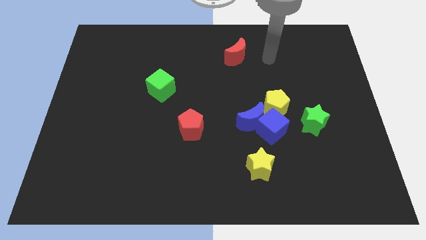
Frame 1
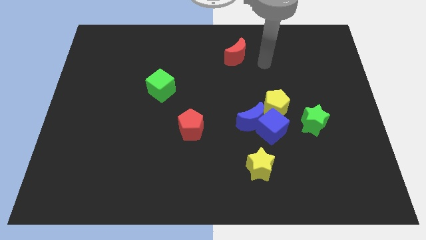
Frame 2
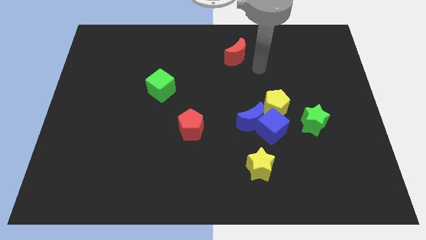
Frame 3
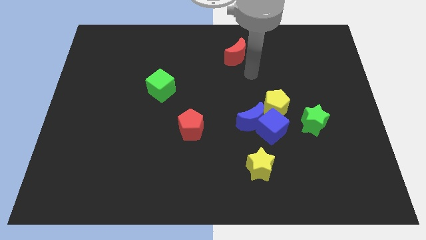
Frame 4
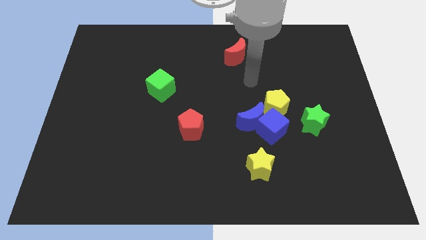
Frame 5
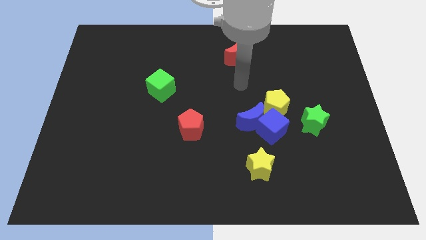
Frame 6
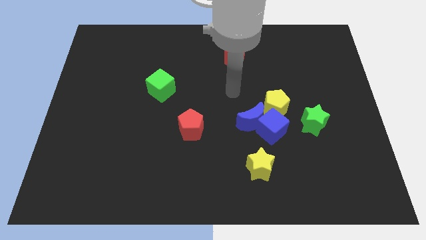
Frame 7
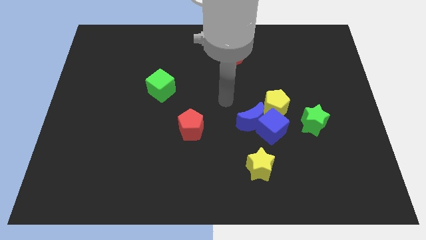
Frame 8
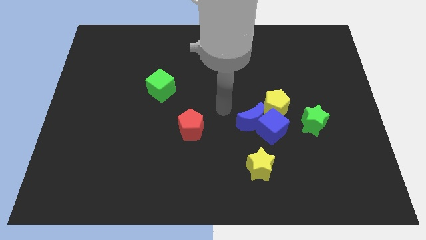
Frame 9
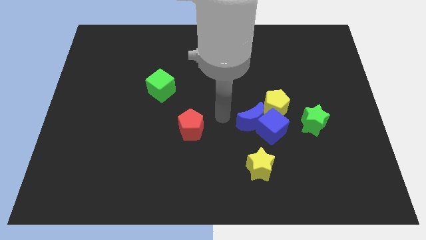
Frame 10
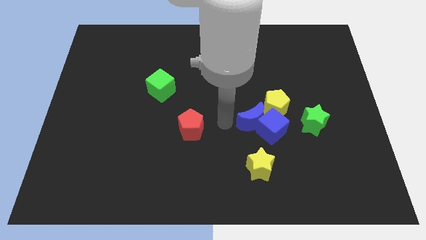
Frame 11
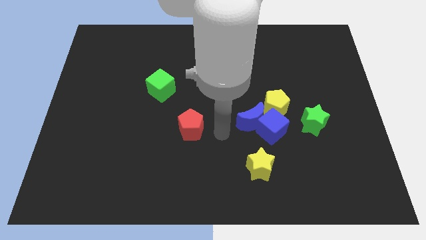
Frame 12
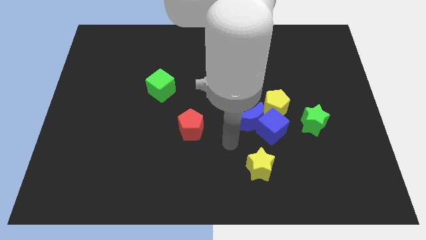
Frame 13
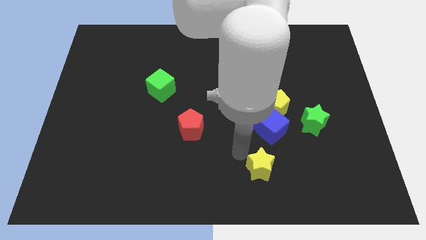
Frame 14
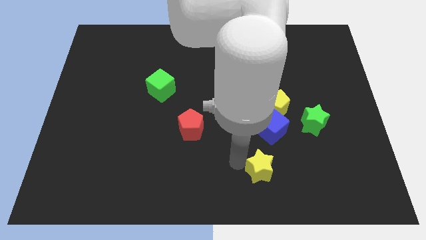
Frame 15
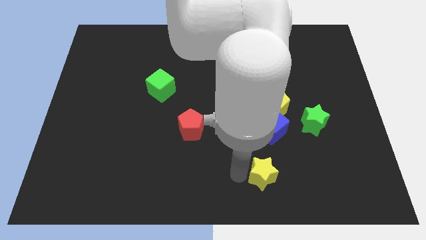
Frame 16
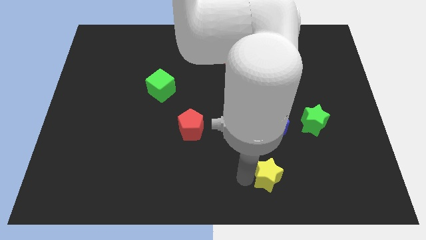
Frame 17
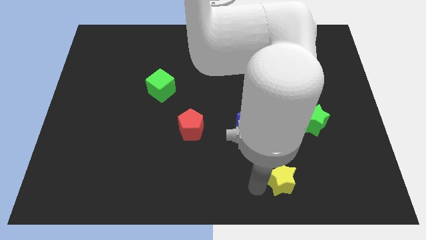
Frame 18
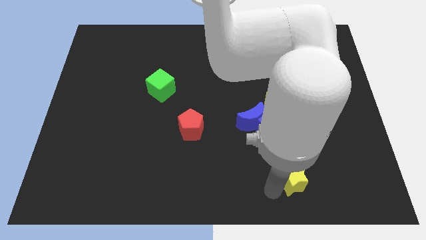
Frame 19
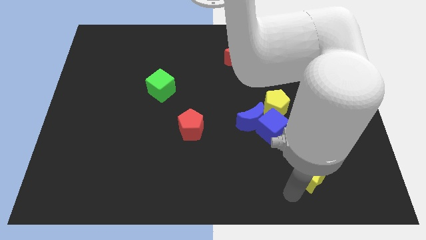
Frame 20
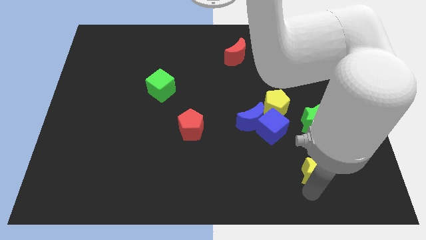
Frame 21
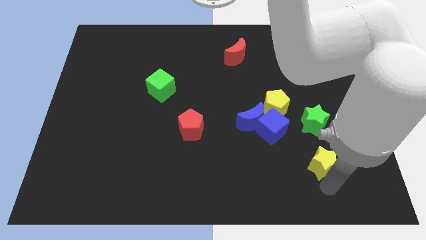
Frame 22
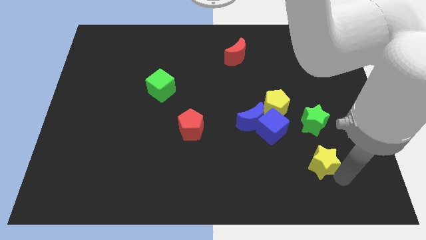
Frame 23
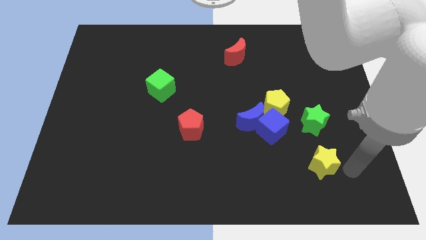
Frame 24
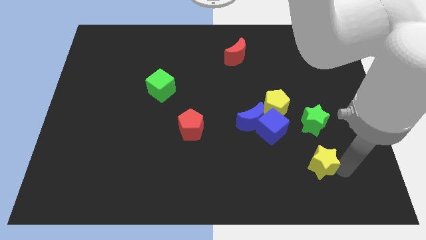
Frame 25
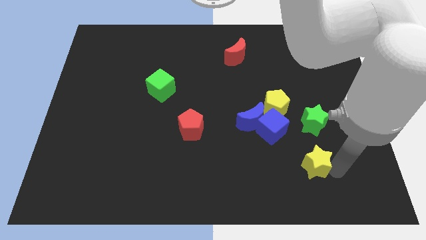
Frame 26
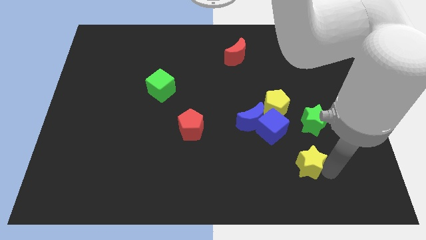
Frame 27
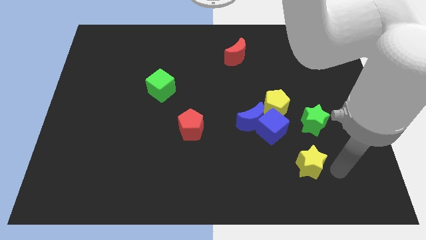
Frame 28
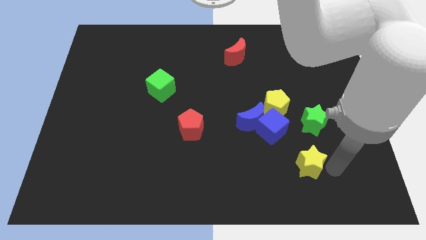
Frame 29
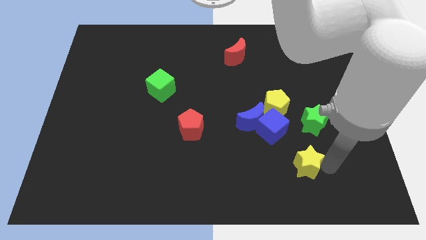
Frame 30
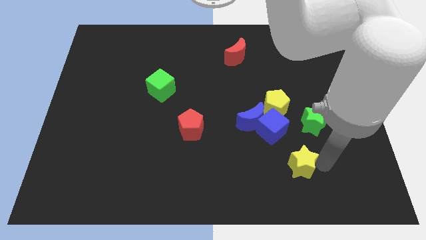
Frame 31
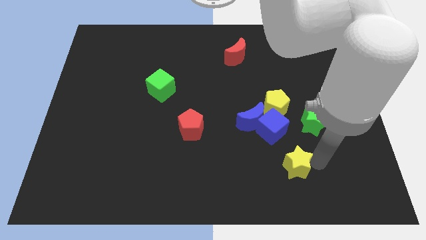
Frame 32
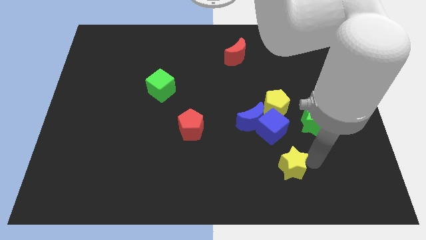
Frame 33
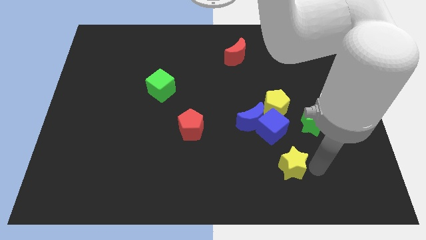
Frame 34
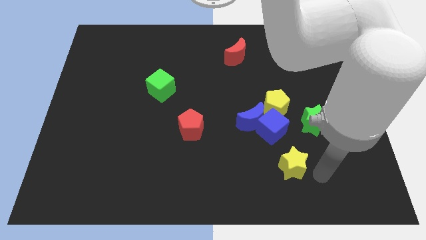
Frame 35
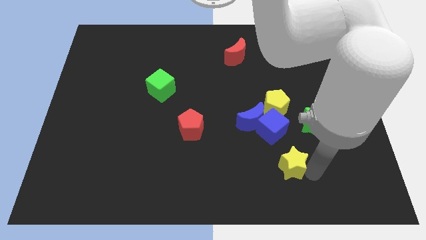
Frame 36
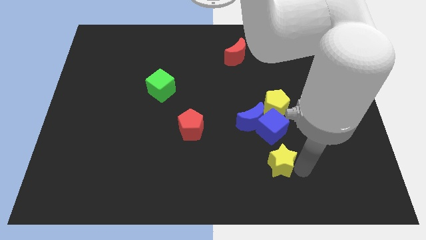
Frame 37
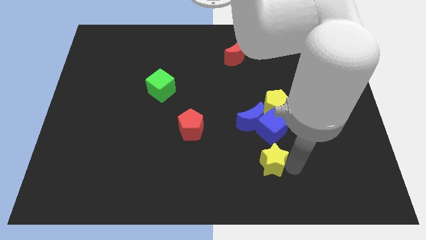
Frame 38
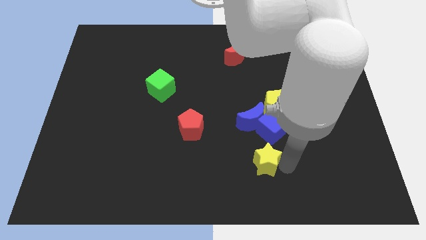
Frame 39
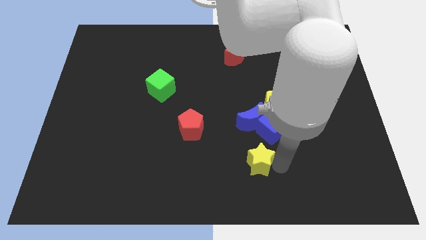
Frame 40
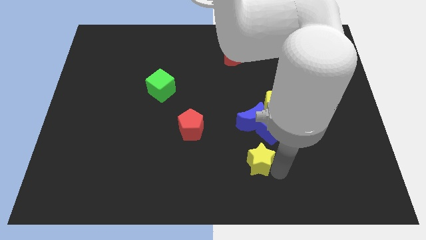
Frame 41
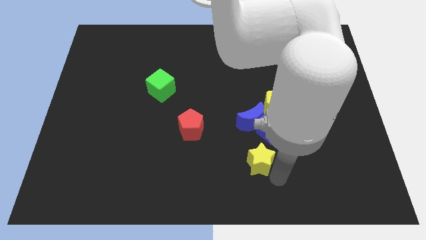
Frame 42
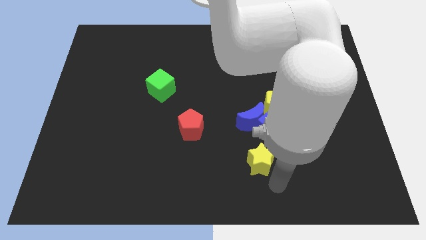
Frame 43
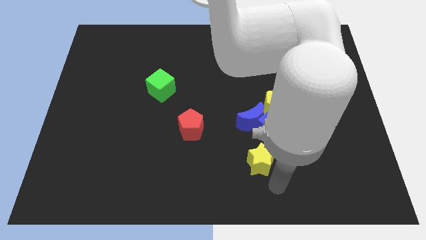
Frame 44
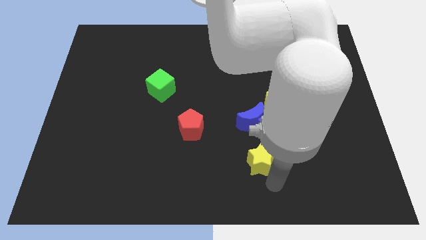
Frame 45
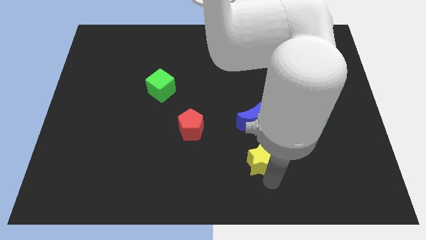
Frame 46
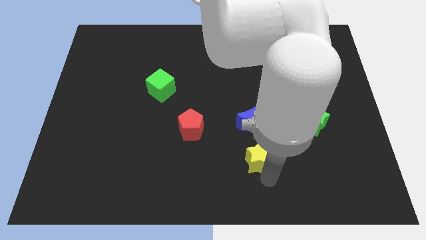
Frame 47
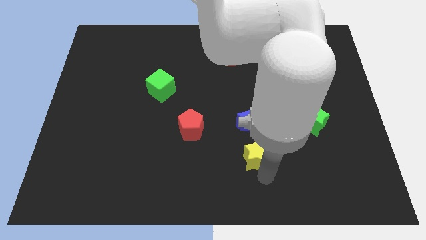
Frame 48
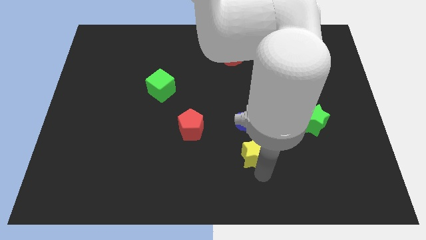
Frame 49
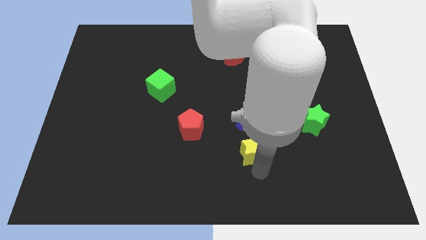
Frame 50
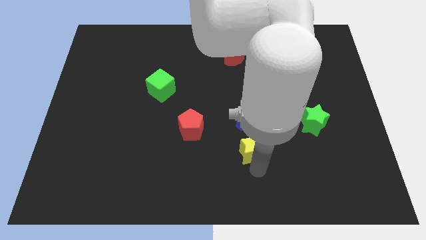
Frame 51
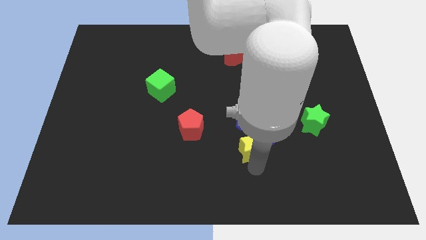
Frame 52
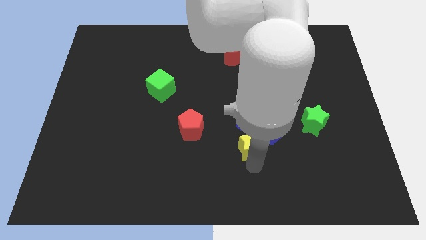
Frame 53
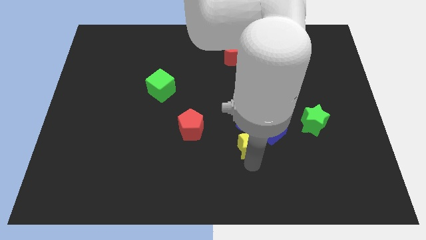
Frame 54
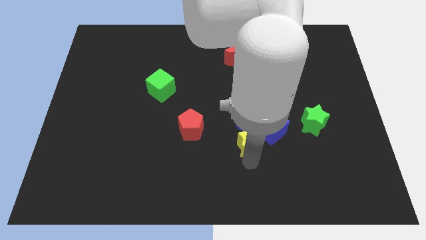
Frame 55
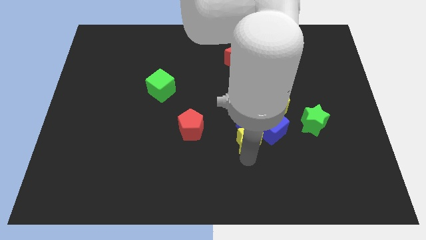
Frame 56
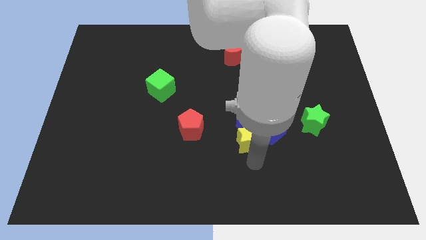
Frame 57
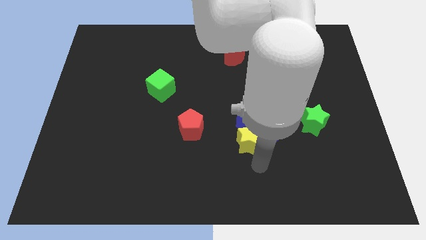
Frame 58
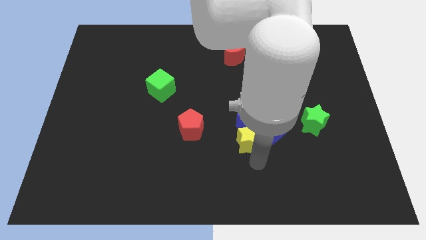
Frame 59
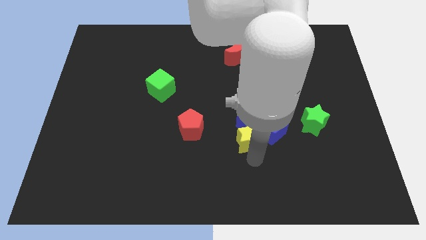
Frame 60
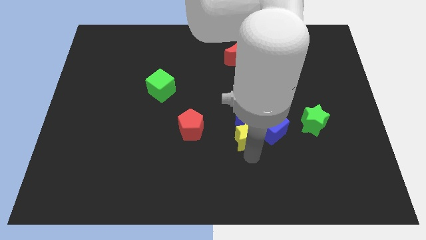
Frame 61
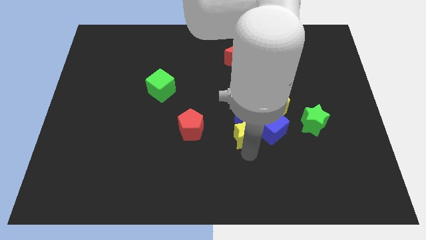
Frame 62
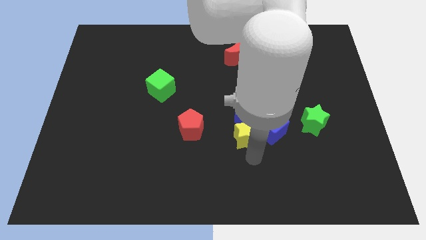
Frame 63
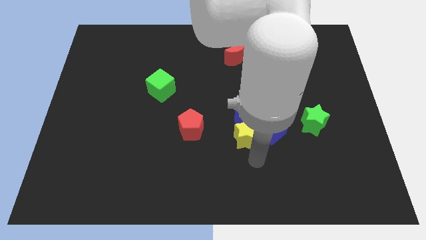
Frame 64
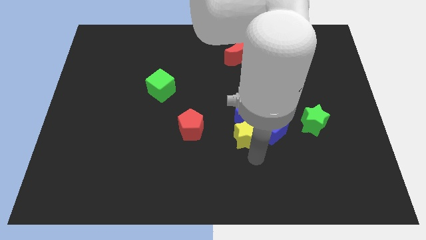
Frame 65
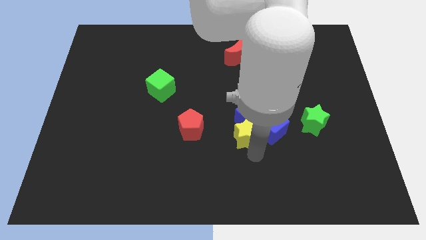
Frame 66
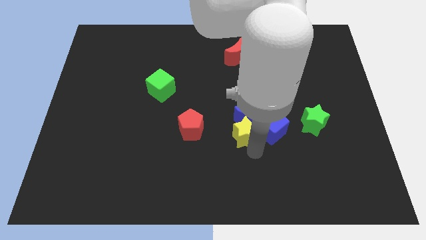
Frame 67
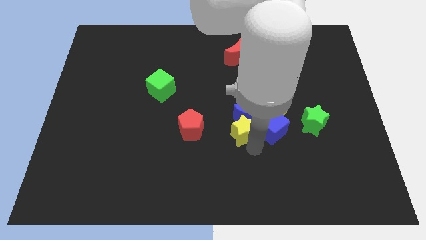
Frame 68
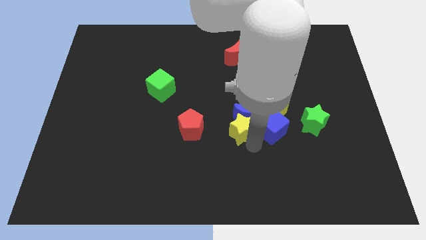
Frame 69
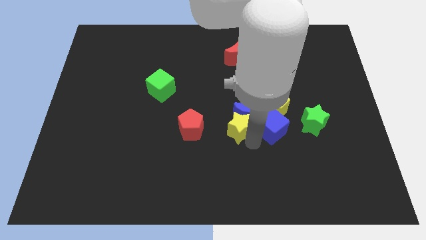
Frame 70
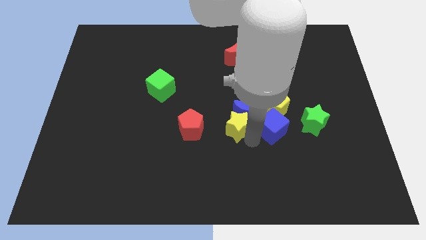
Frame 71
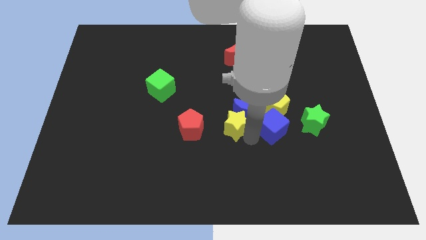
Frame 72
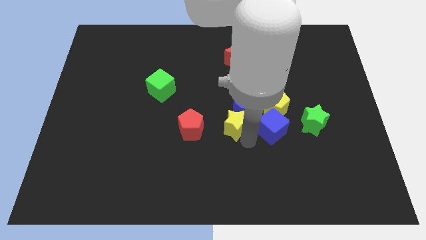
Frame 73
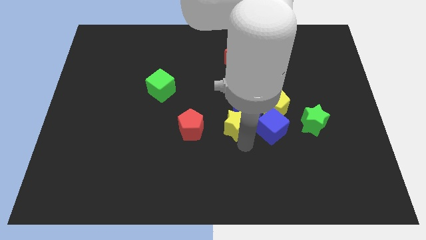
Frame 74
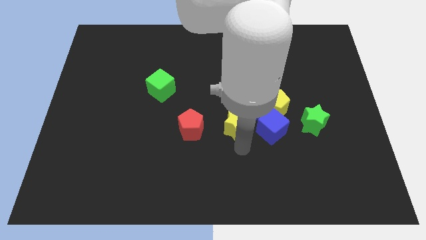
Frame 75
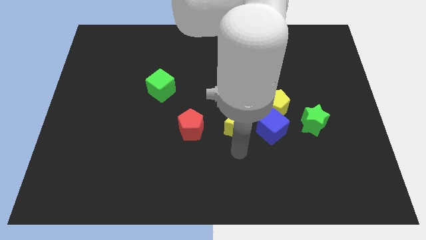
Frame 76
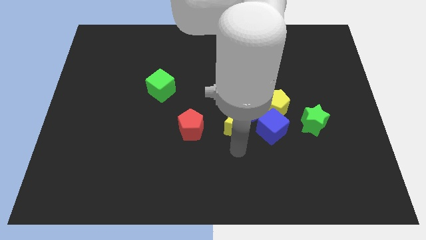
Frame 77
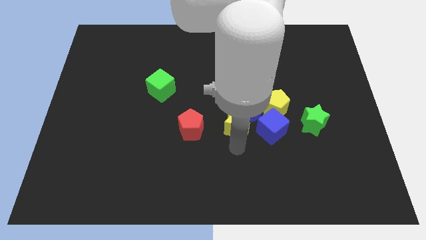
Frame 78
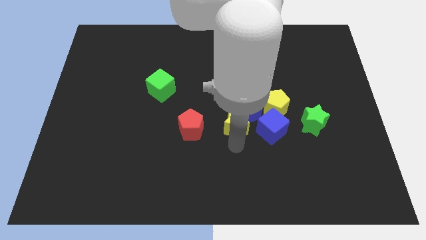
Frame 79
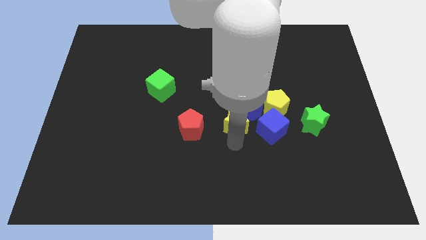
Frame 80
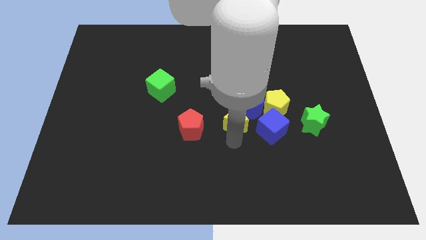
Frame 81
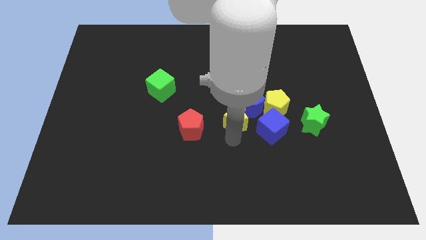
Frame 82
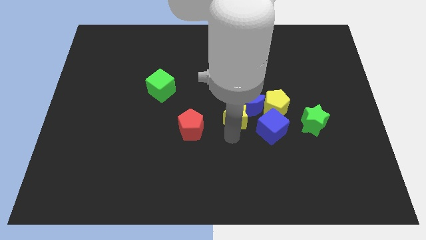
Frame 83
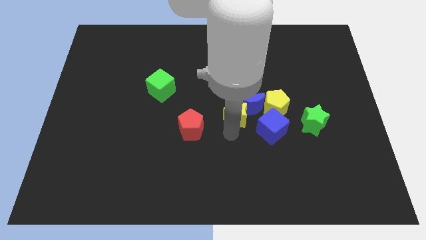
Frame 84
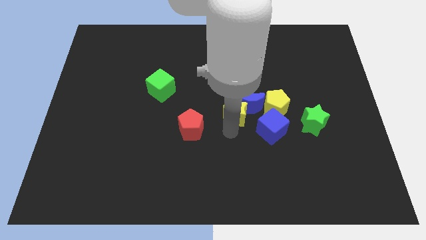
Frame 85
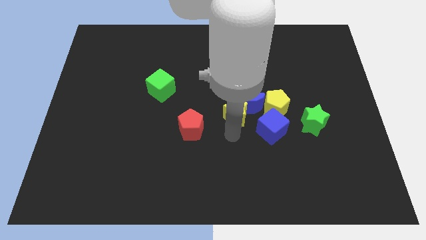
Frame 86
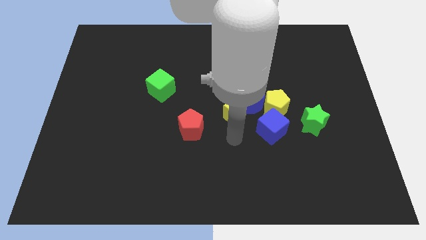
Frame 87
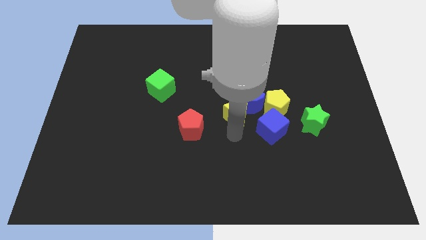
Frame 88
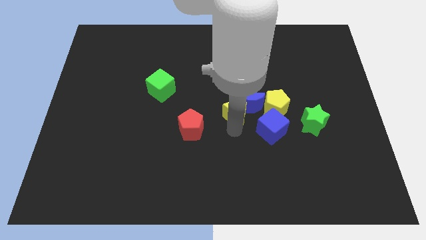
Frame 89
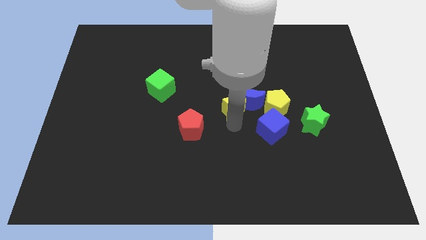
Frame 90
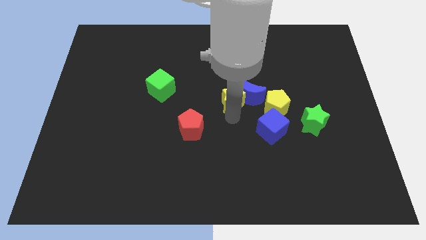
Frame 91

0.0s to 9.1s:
push the yellow star below the red moon
